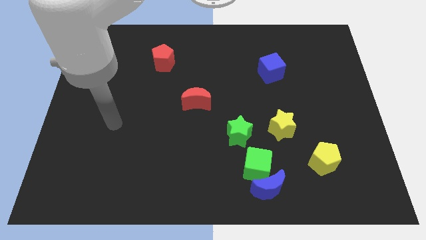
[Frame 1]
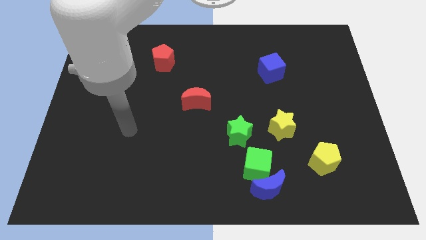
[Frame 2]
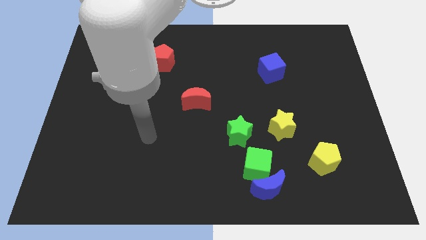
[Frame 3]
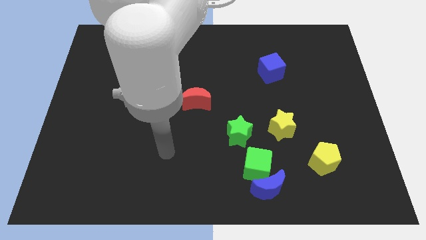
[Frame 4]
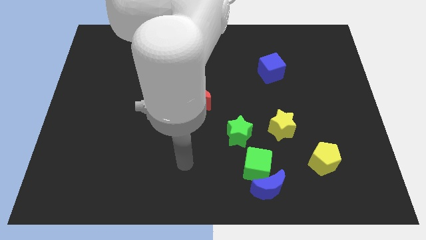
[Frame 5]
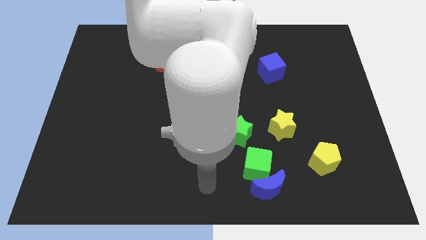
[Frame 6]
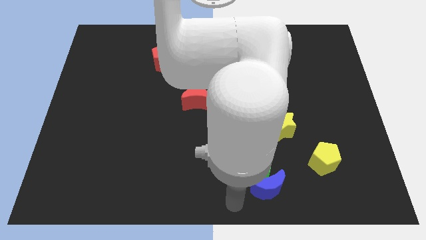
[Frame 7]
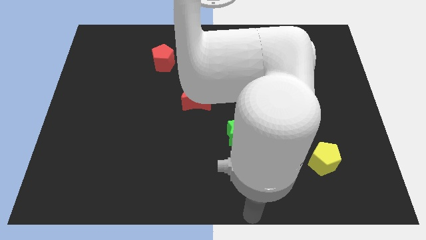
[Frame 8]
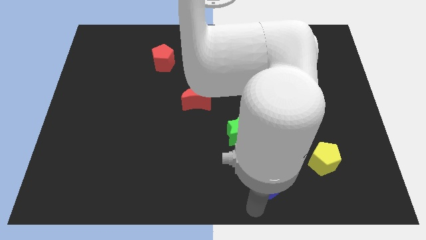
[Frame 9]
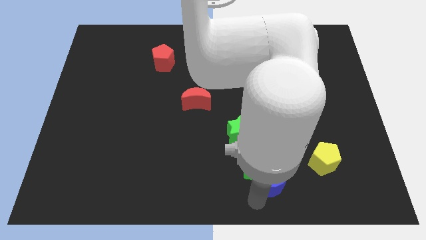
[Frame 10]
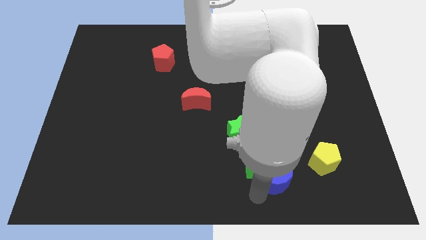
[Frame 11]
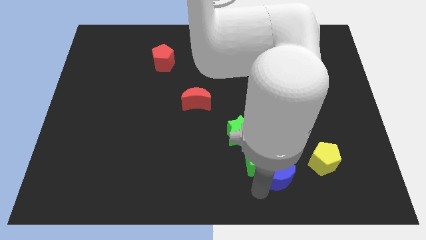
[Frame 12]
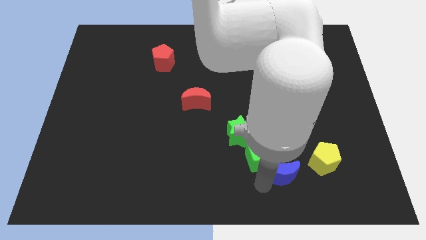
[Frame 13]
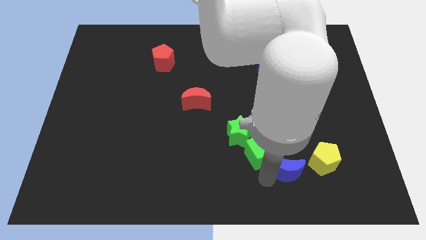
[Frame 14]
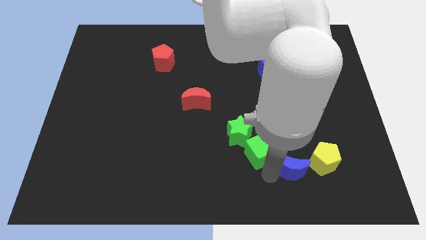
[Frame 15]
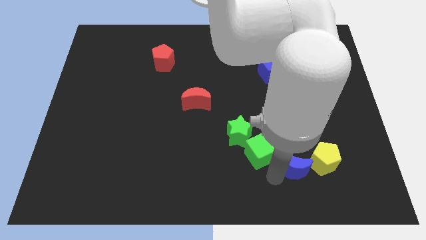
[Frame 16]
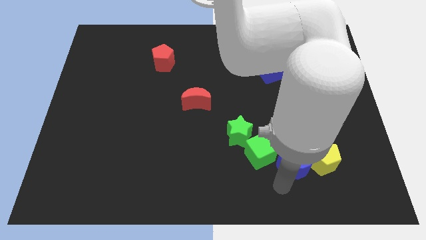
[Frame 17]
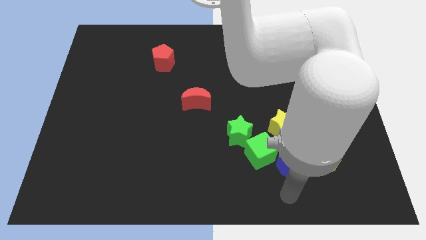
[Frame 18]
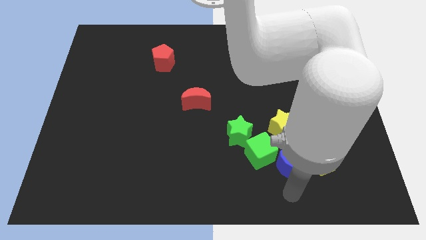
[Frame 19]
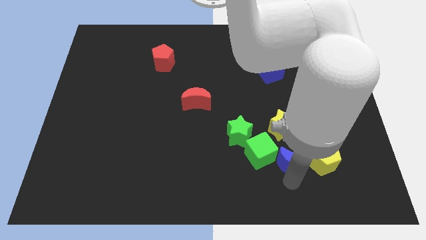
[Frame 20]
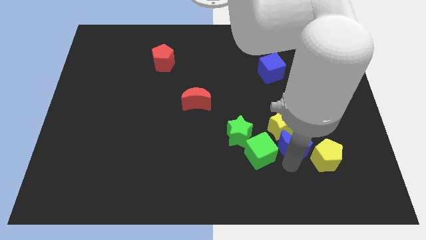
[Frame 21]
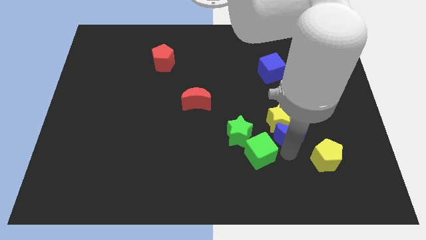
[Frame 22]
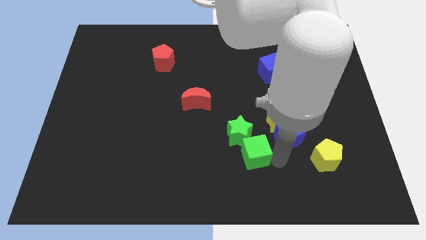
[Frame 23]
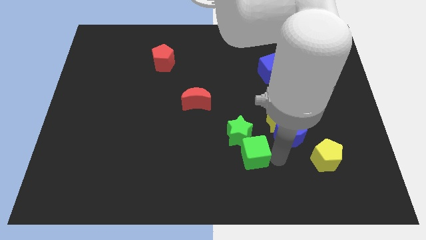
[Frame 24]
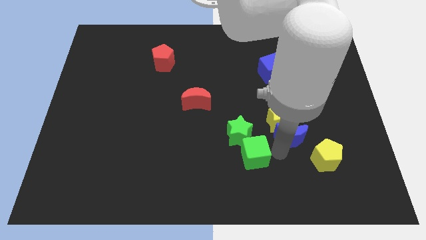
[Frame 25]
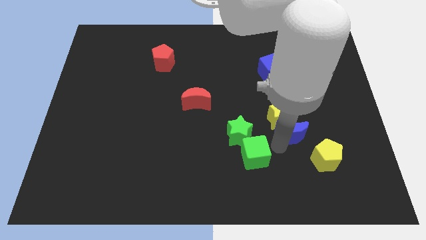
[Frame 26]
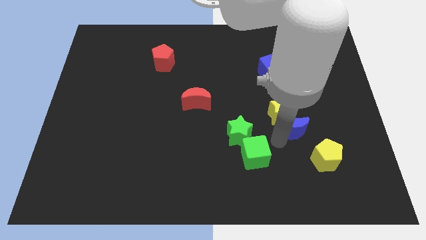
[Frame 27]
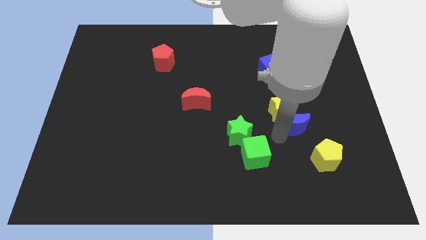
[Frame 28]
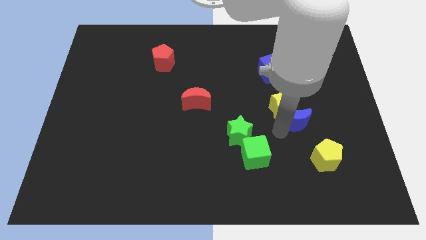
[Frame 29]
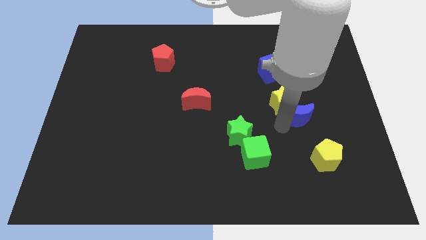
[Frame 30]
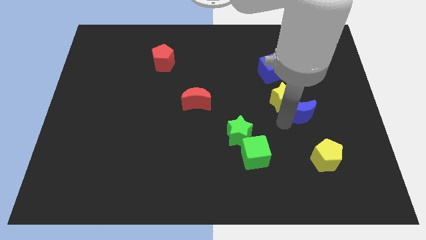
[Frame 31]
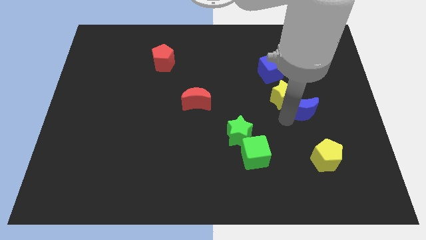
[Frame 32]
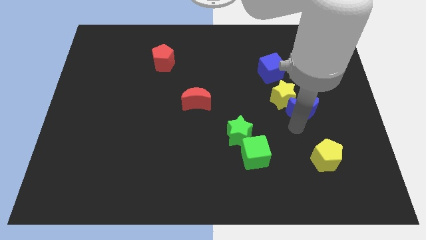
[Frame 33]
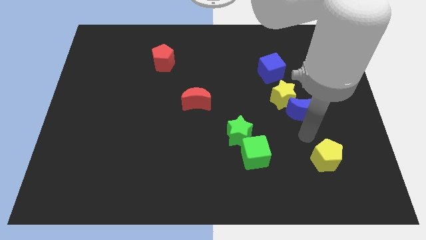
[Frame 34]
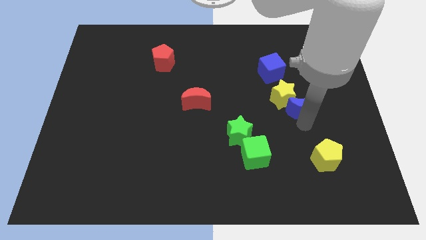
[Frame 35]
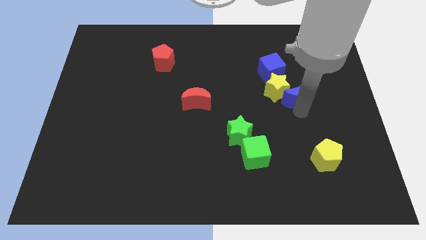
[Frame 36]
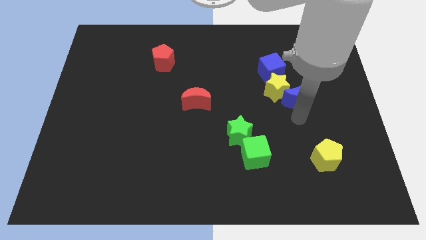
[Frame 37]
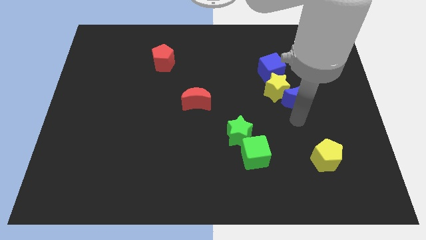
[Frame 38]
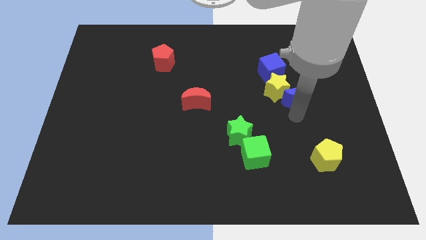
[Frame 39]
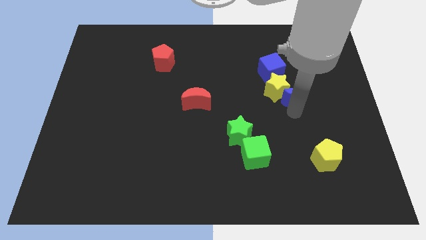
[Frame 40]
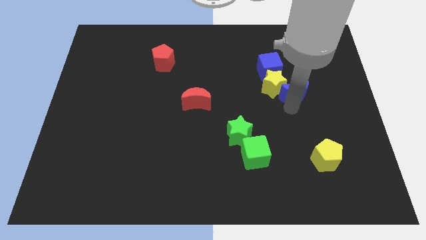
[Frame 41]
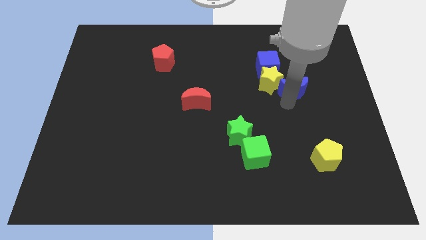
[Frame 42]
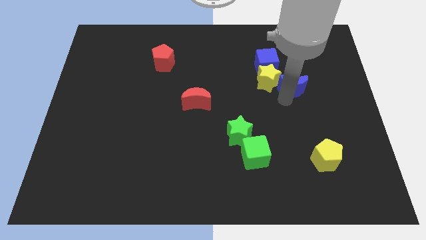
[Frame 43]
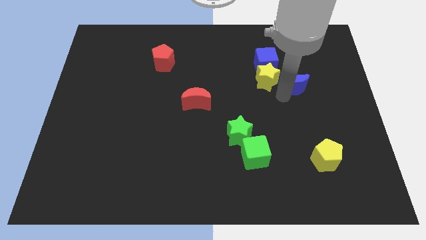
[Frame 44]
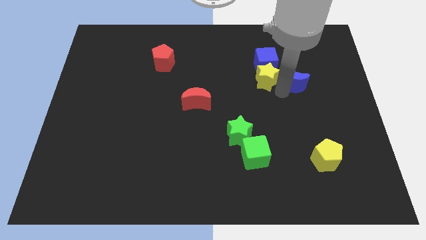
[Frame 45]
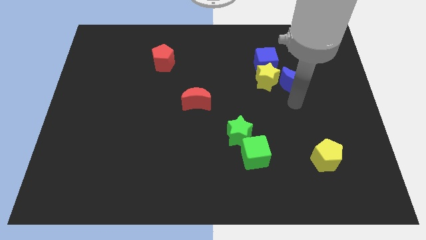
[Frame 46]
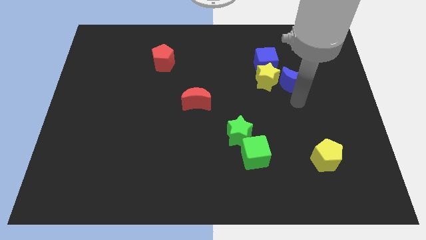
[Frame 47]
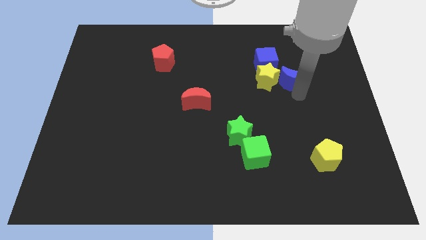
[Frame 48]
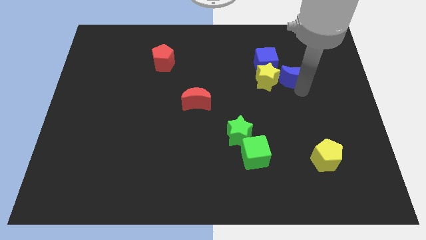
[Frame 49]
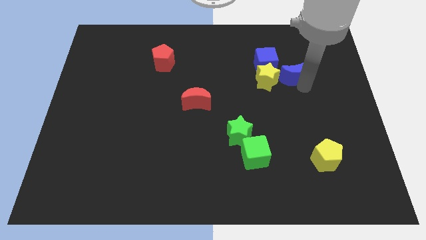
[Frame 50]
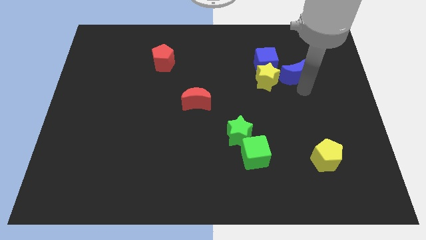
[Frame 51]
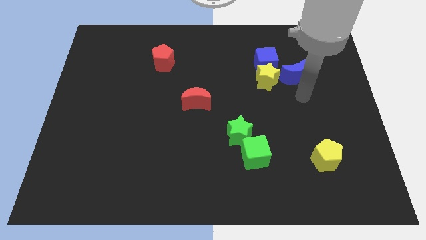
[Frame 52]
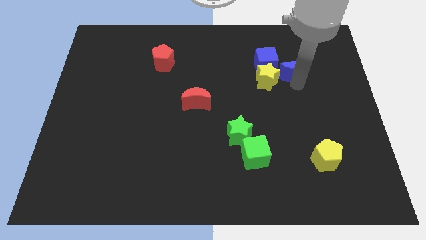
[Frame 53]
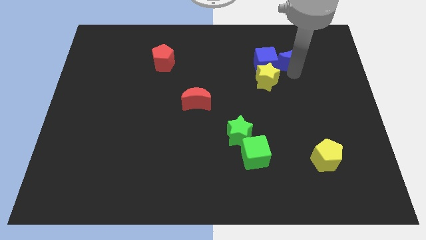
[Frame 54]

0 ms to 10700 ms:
push the blue moon to the top right of the blue cube

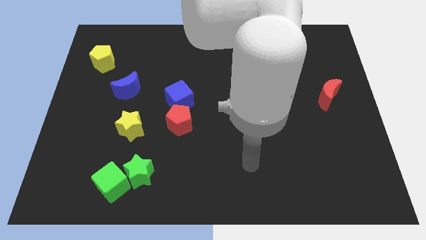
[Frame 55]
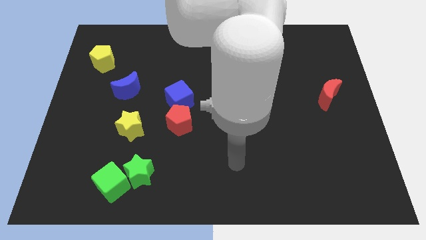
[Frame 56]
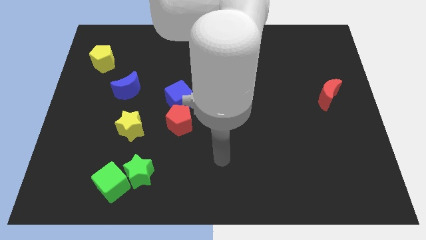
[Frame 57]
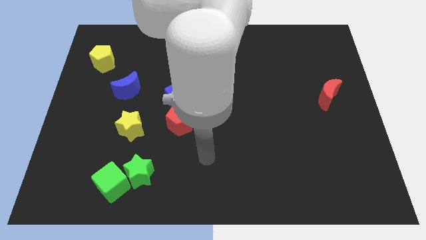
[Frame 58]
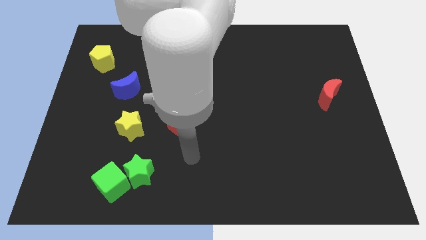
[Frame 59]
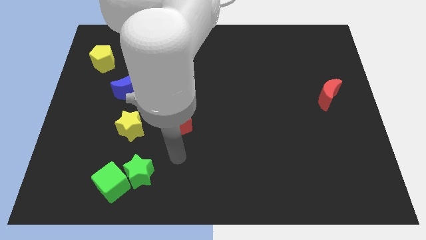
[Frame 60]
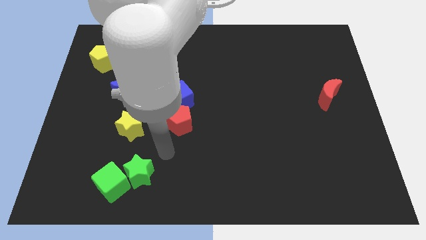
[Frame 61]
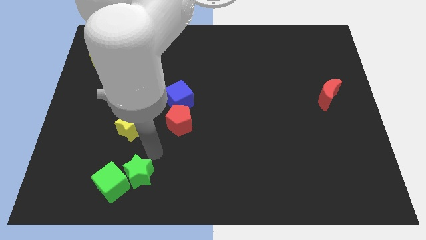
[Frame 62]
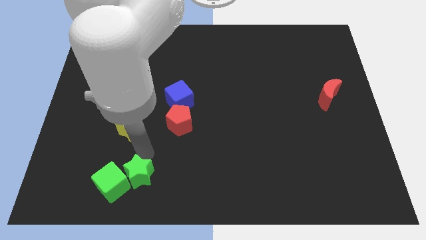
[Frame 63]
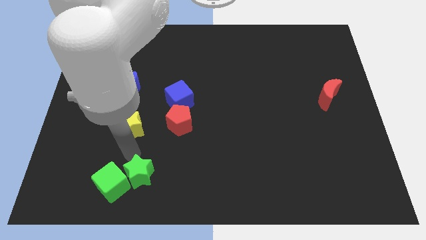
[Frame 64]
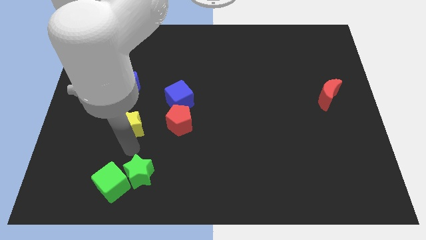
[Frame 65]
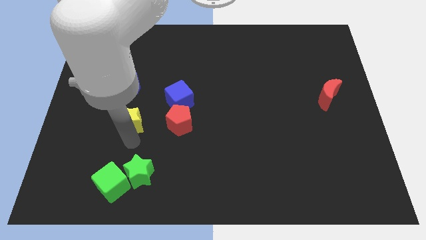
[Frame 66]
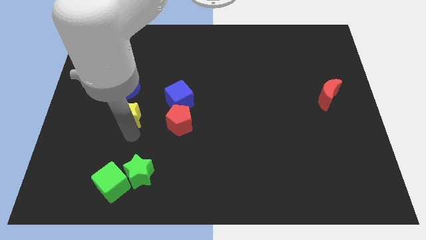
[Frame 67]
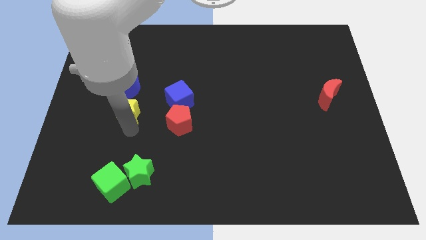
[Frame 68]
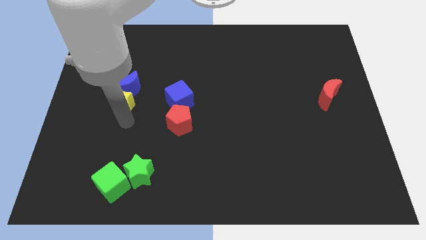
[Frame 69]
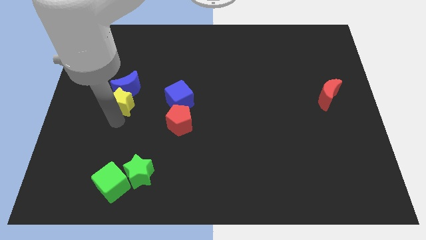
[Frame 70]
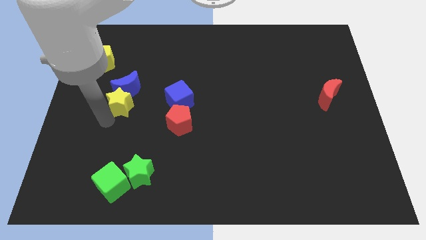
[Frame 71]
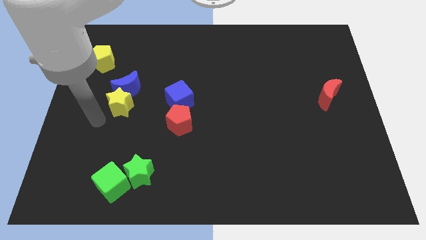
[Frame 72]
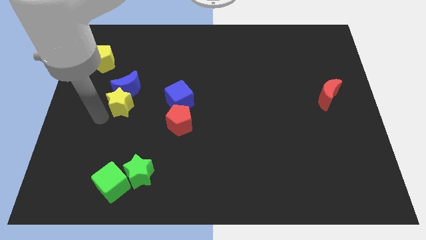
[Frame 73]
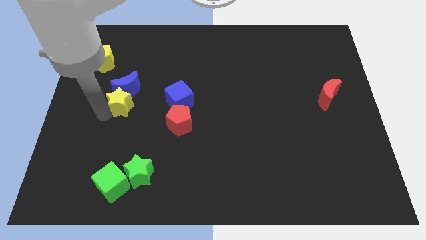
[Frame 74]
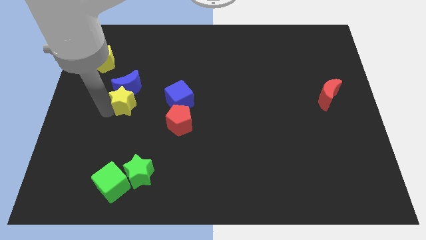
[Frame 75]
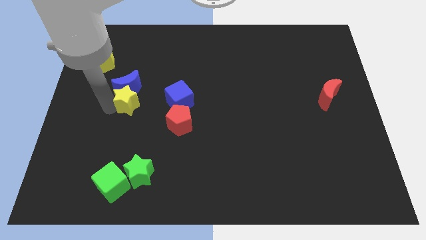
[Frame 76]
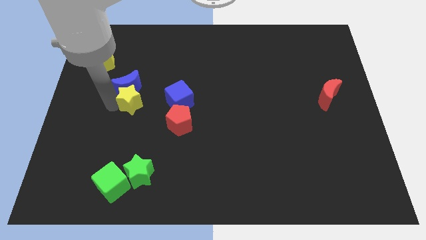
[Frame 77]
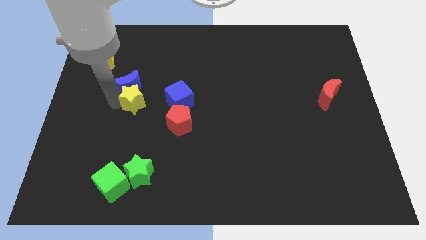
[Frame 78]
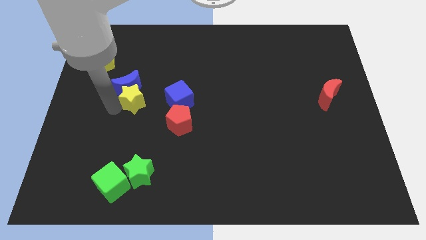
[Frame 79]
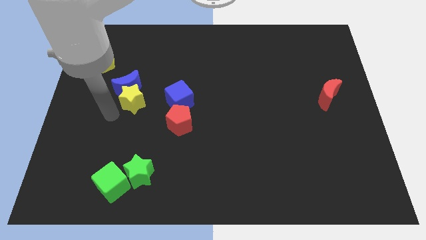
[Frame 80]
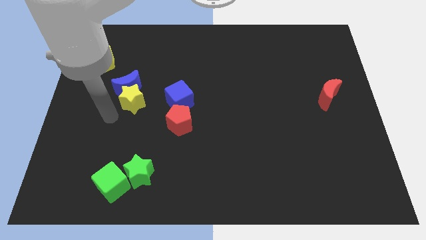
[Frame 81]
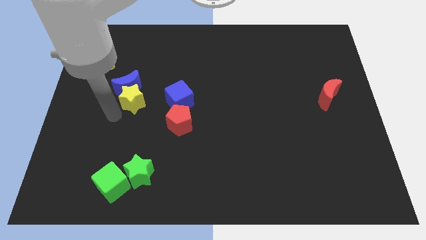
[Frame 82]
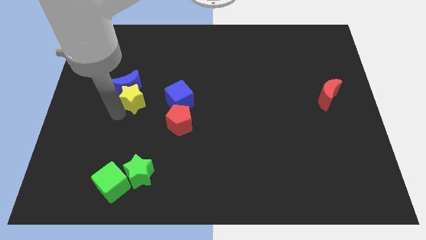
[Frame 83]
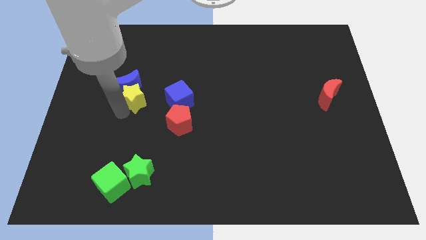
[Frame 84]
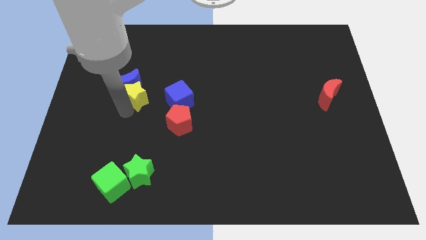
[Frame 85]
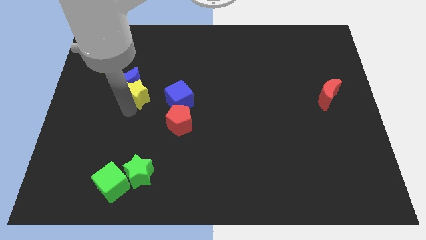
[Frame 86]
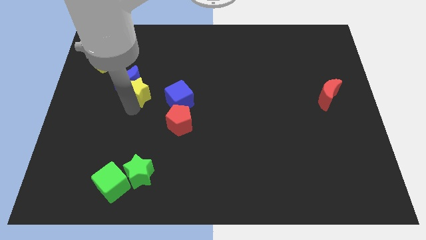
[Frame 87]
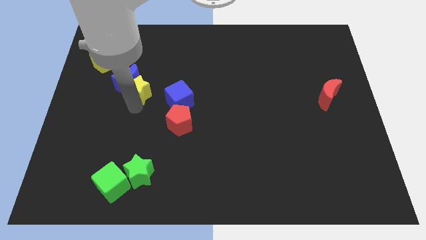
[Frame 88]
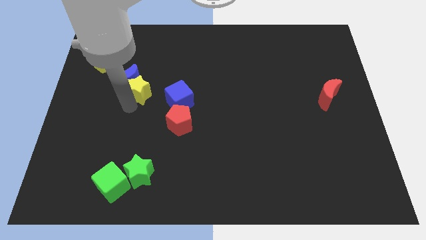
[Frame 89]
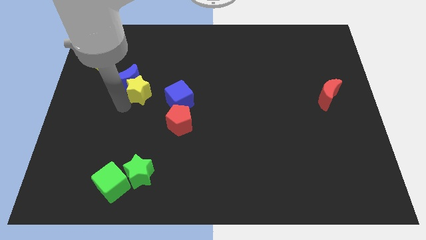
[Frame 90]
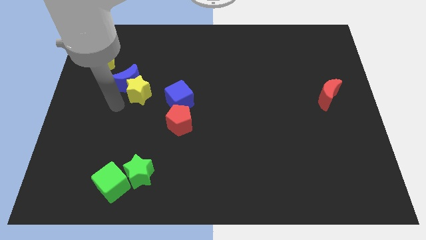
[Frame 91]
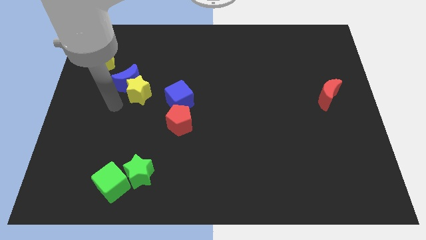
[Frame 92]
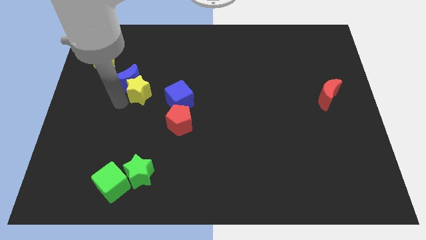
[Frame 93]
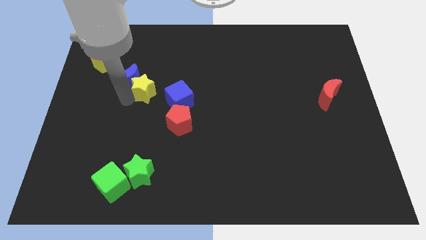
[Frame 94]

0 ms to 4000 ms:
push the yellow star diagonally up and to the left of the blue cube
